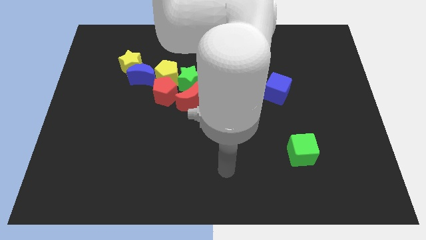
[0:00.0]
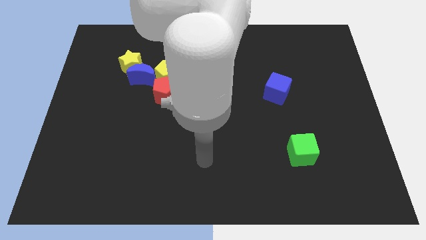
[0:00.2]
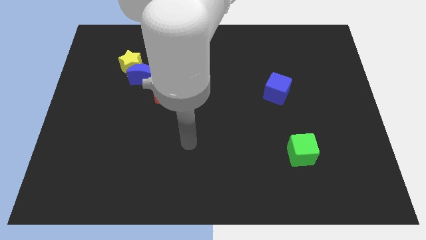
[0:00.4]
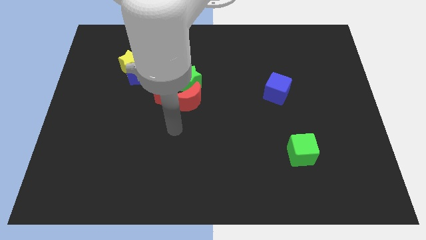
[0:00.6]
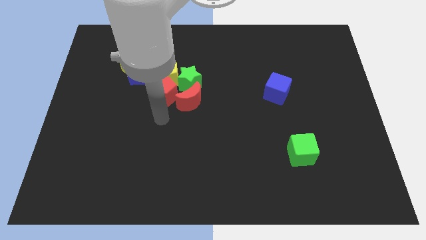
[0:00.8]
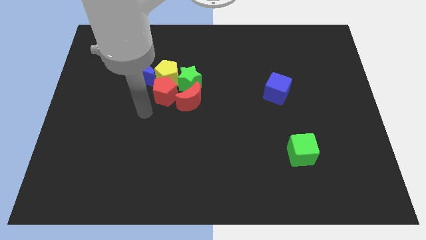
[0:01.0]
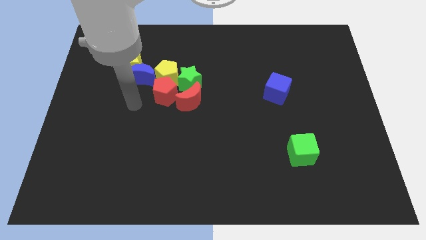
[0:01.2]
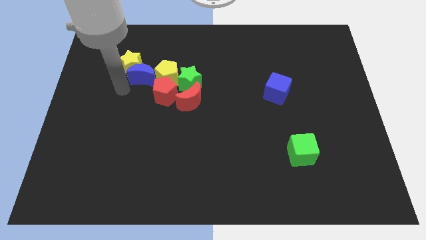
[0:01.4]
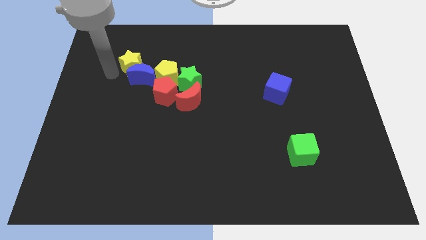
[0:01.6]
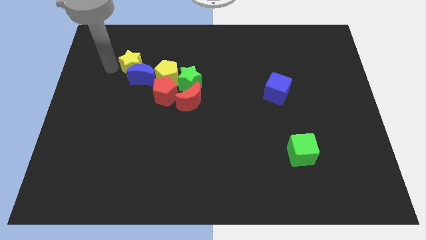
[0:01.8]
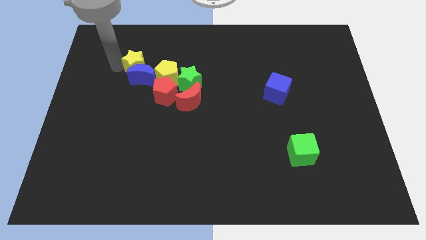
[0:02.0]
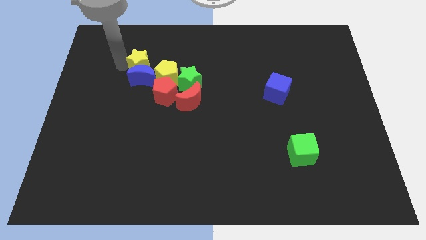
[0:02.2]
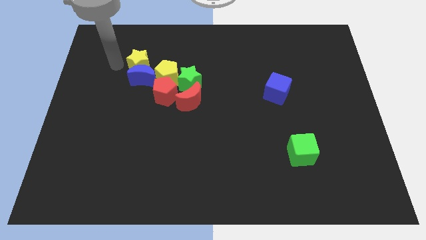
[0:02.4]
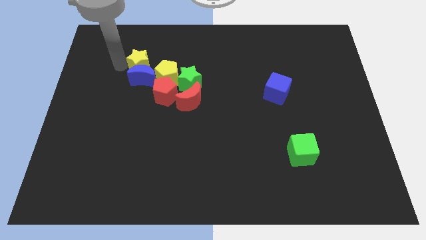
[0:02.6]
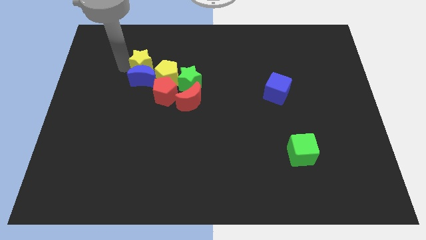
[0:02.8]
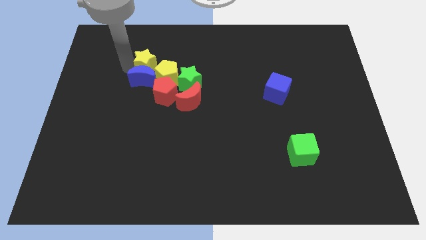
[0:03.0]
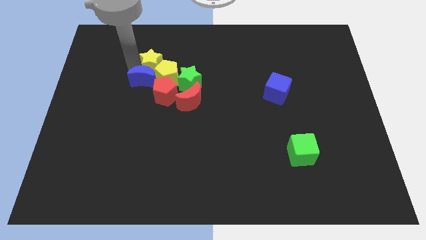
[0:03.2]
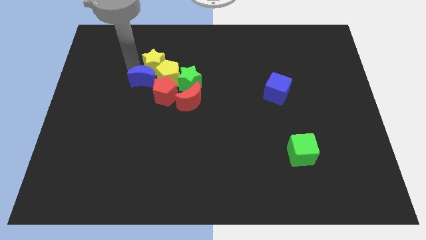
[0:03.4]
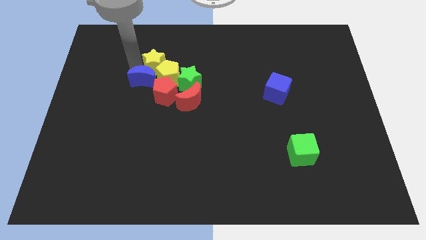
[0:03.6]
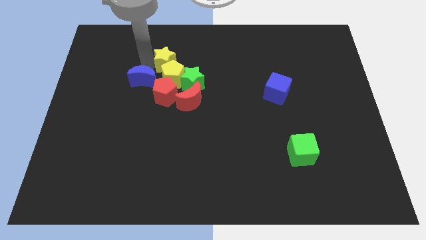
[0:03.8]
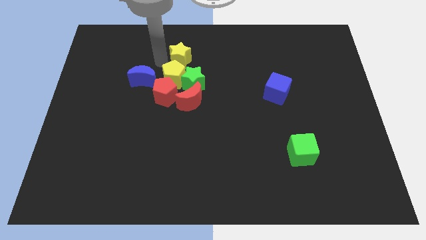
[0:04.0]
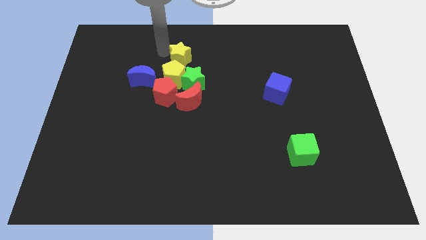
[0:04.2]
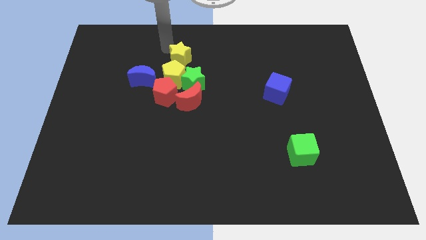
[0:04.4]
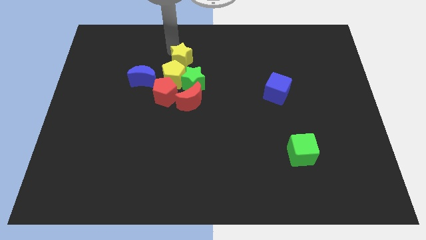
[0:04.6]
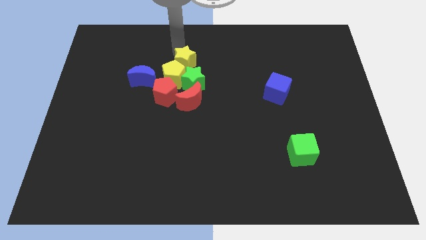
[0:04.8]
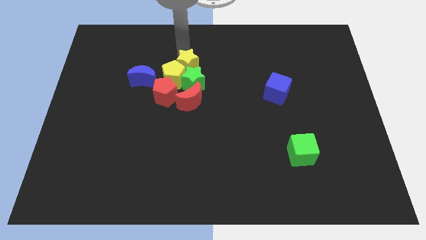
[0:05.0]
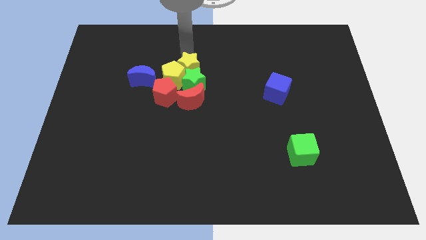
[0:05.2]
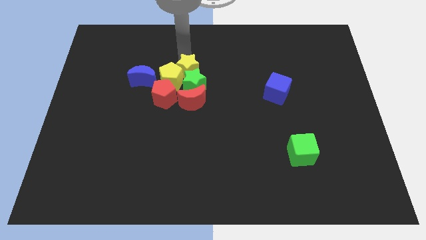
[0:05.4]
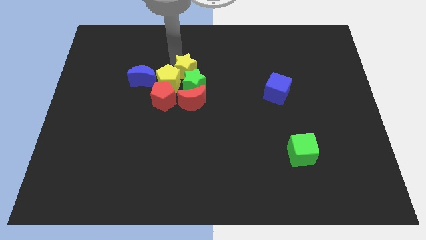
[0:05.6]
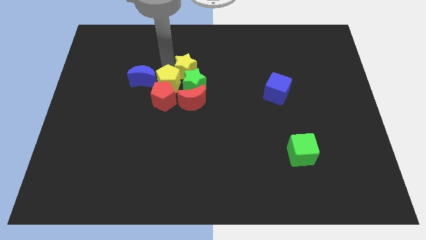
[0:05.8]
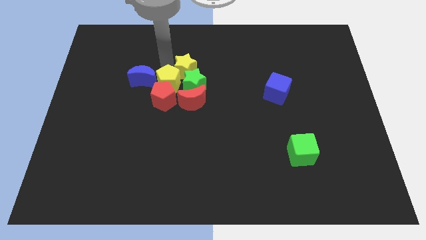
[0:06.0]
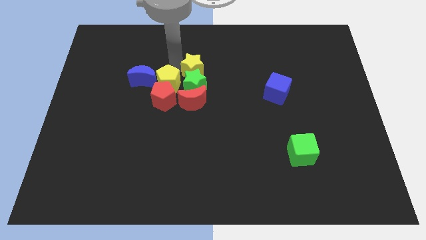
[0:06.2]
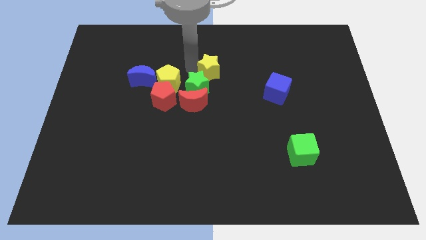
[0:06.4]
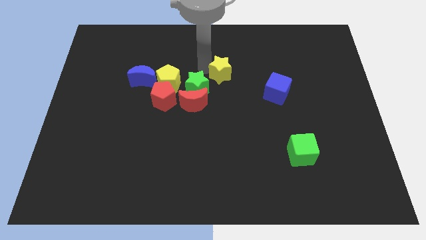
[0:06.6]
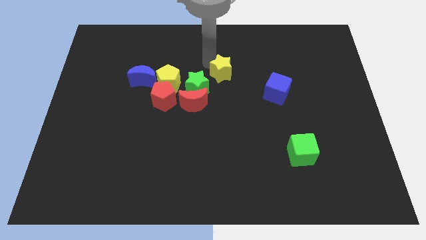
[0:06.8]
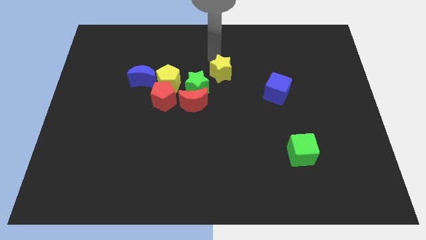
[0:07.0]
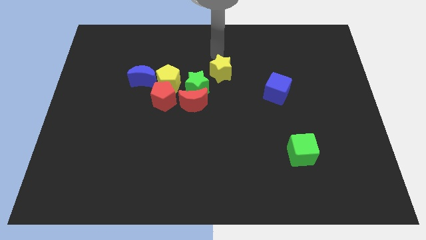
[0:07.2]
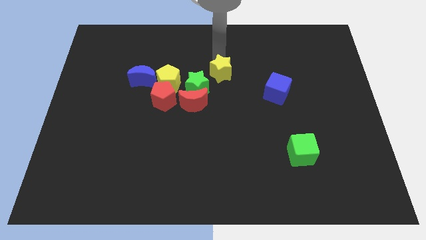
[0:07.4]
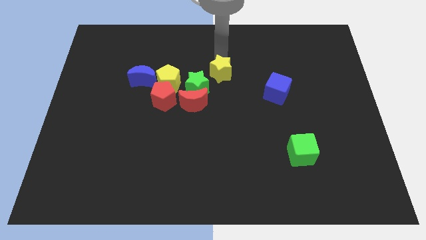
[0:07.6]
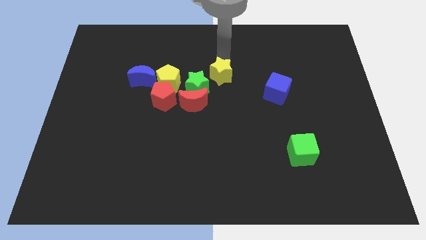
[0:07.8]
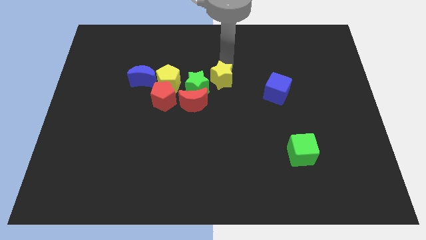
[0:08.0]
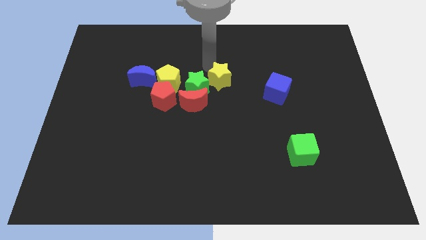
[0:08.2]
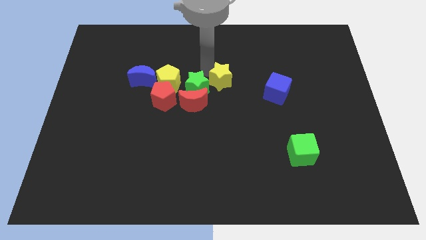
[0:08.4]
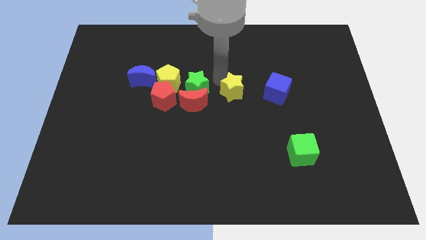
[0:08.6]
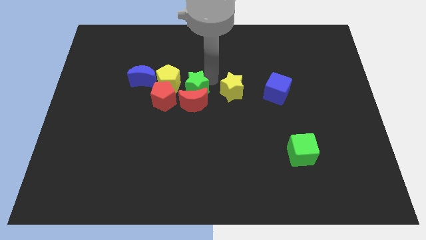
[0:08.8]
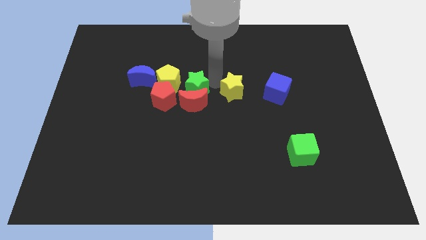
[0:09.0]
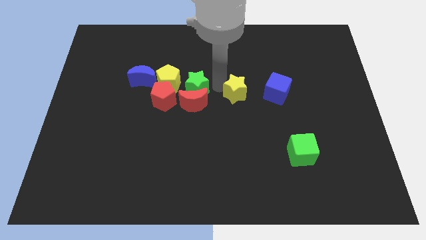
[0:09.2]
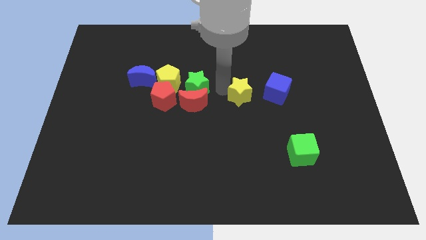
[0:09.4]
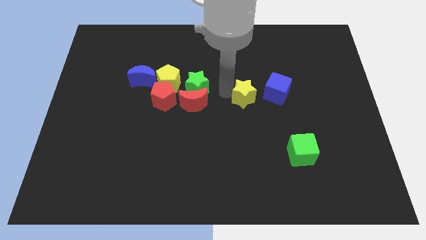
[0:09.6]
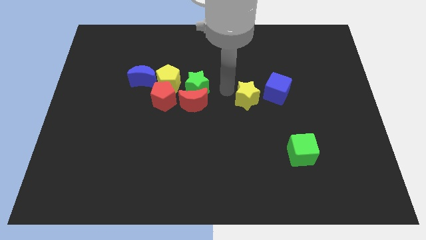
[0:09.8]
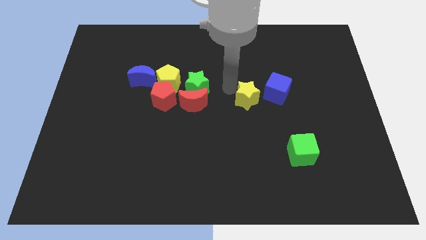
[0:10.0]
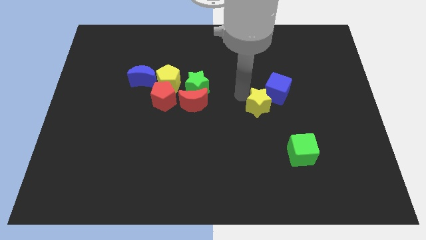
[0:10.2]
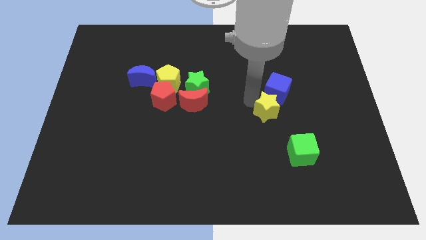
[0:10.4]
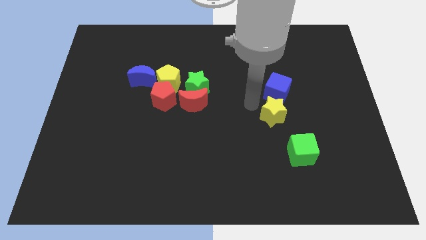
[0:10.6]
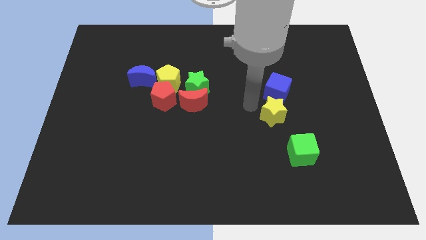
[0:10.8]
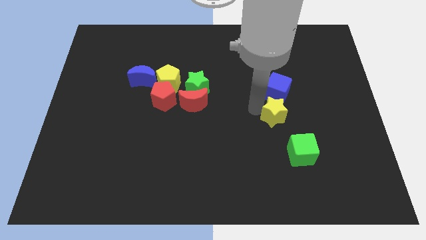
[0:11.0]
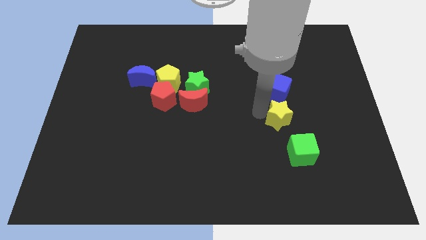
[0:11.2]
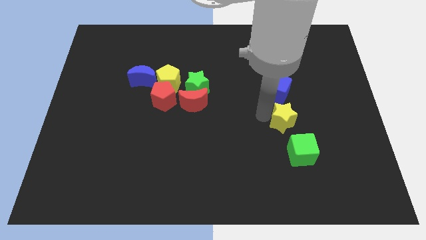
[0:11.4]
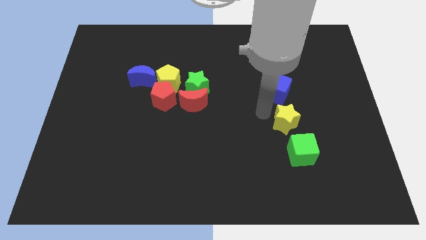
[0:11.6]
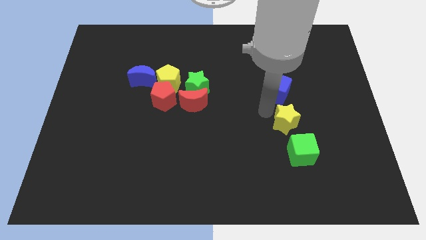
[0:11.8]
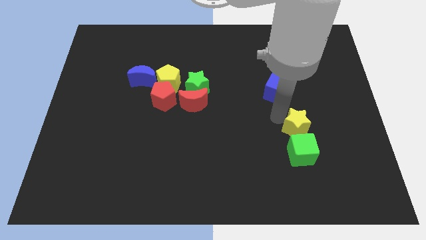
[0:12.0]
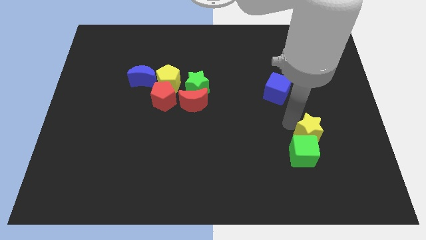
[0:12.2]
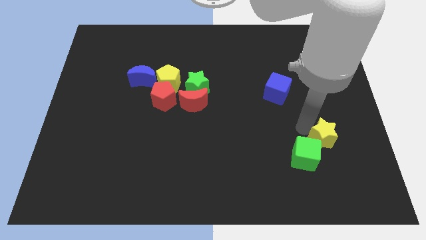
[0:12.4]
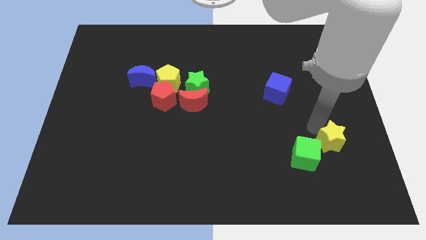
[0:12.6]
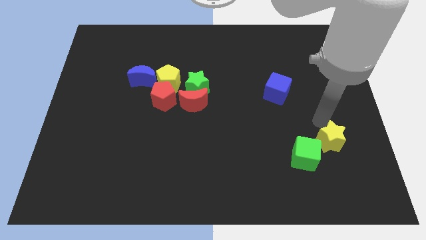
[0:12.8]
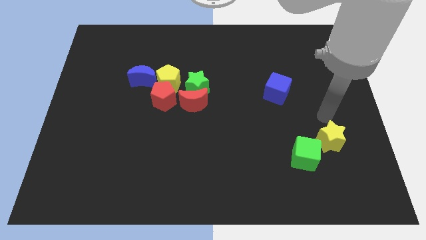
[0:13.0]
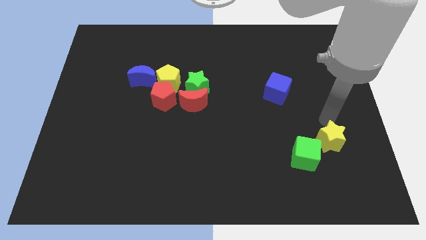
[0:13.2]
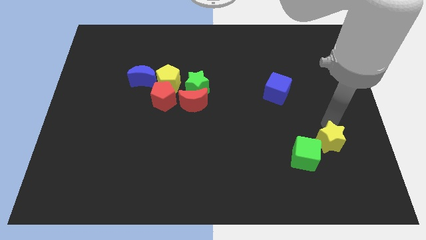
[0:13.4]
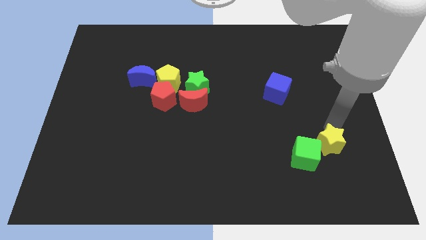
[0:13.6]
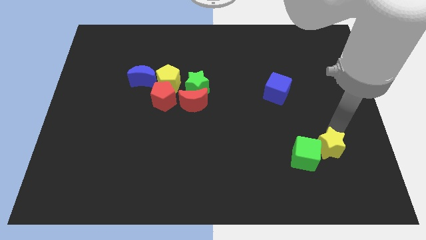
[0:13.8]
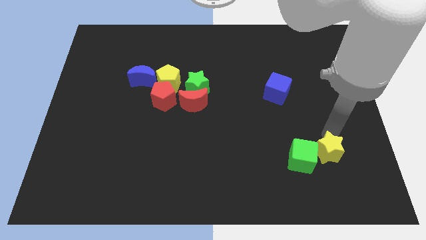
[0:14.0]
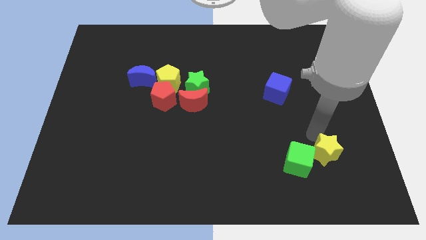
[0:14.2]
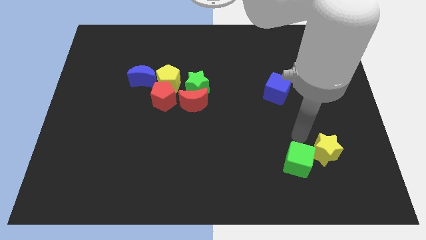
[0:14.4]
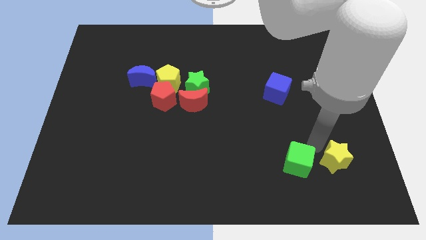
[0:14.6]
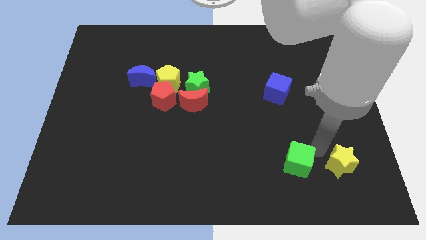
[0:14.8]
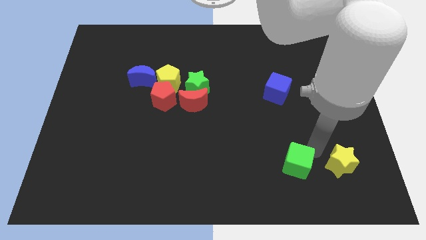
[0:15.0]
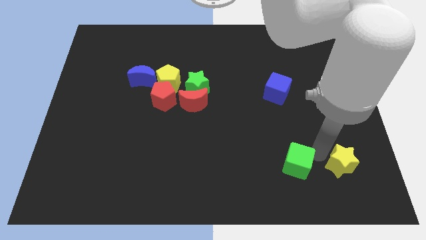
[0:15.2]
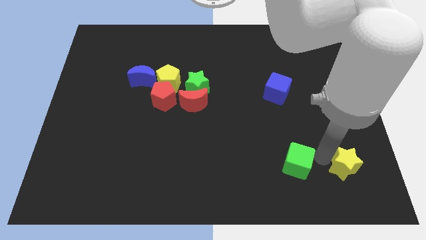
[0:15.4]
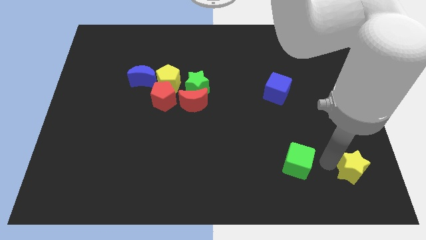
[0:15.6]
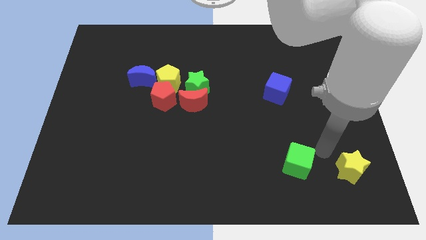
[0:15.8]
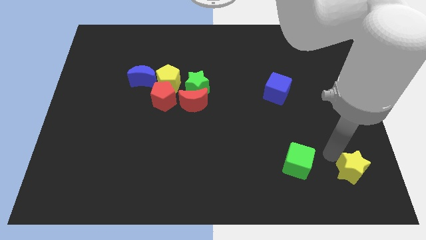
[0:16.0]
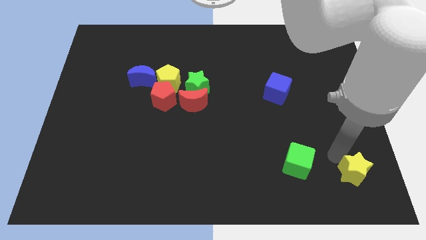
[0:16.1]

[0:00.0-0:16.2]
slide the yellow star to the bottom right corner
